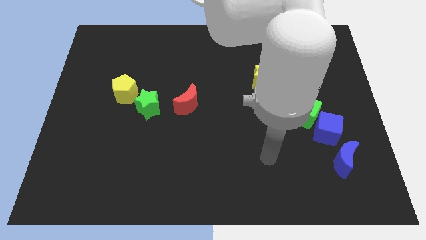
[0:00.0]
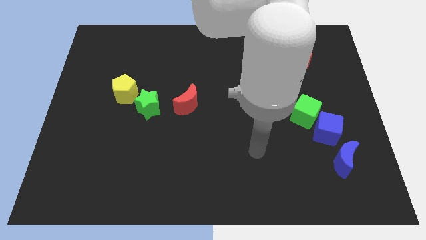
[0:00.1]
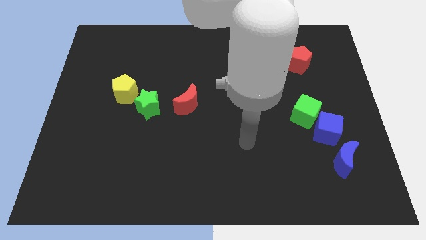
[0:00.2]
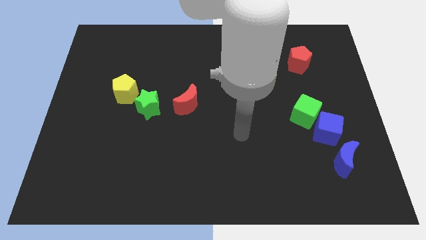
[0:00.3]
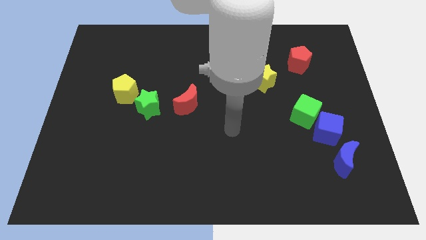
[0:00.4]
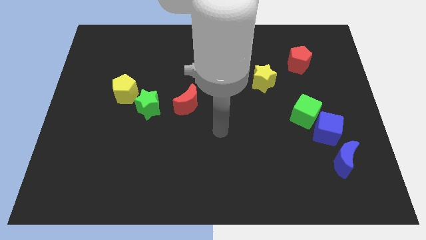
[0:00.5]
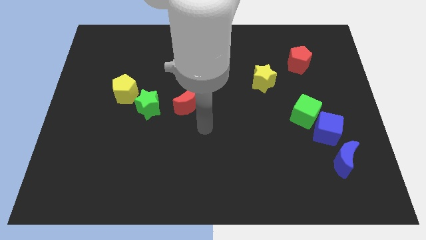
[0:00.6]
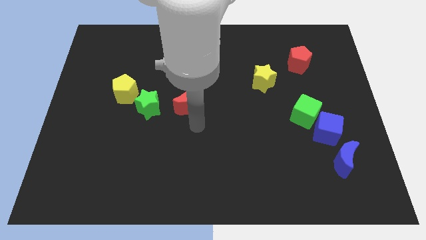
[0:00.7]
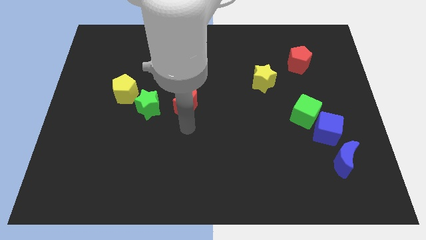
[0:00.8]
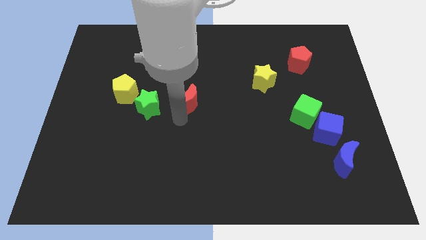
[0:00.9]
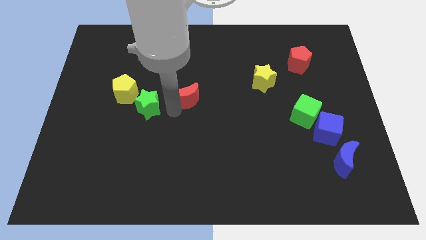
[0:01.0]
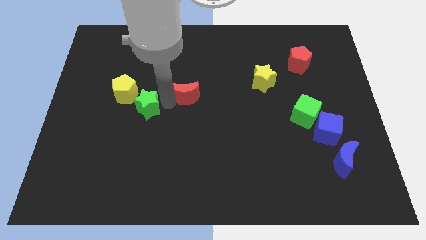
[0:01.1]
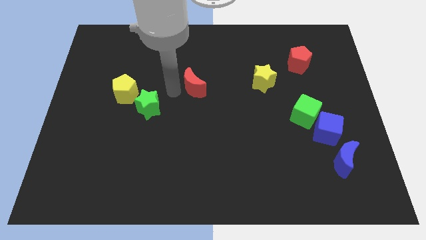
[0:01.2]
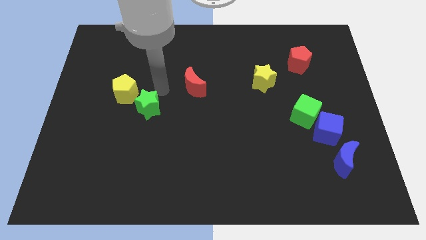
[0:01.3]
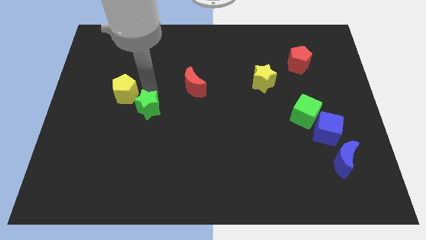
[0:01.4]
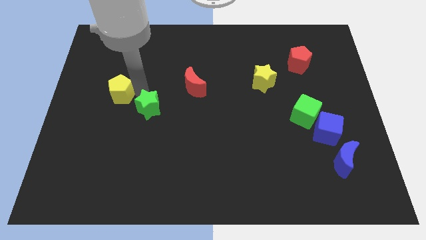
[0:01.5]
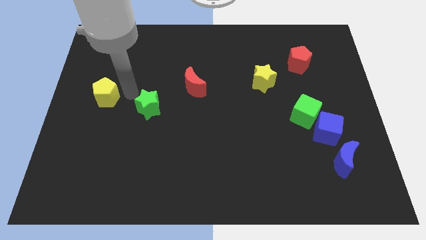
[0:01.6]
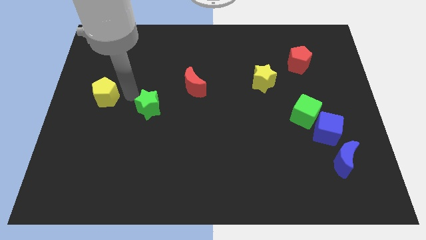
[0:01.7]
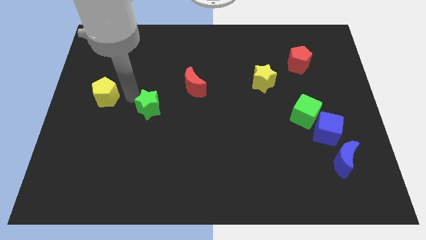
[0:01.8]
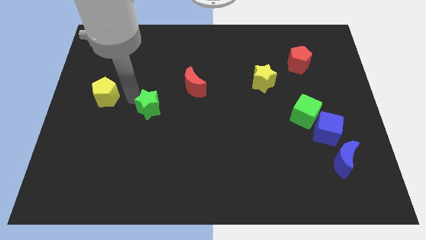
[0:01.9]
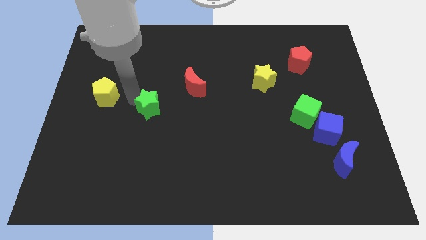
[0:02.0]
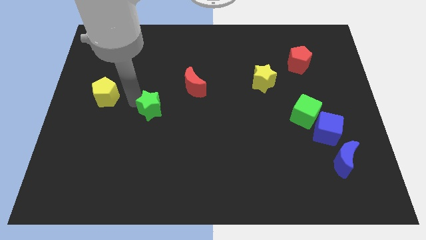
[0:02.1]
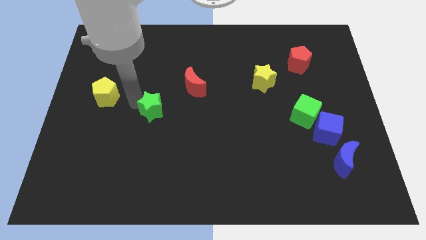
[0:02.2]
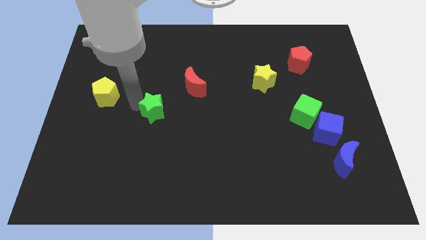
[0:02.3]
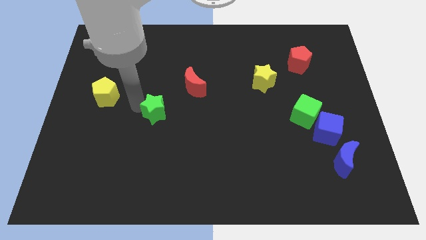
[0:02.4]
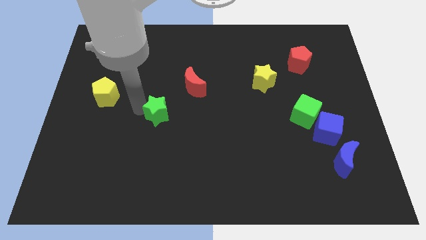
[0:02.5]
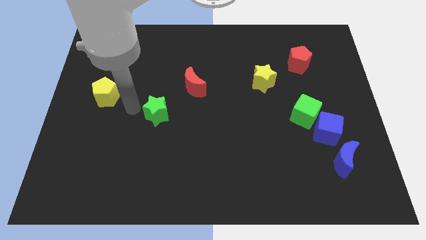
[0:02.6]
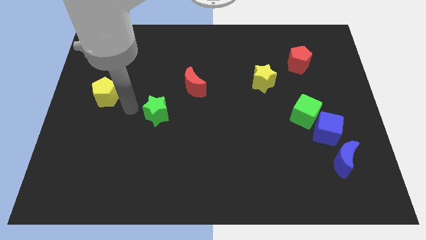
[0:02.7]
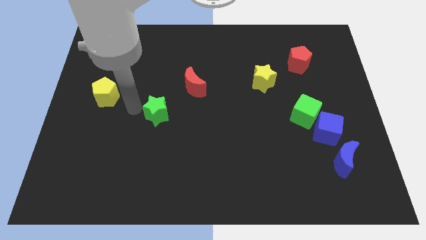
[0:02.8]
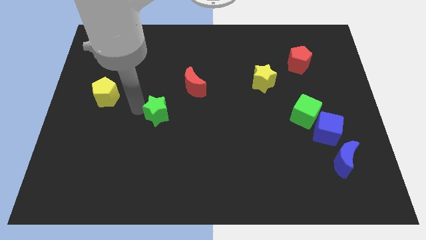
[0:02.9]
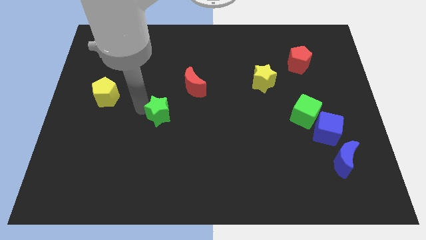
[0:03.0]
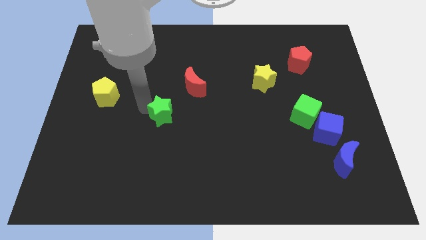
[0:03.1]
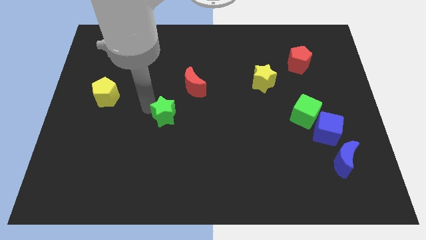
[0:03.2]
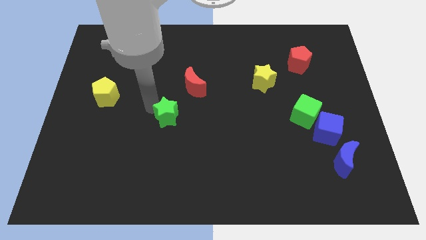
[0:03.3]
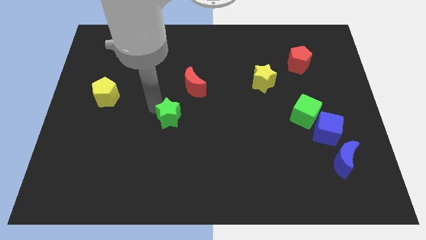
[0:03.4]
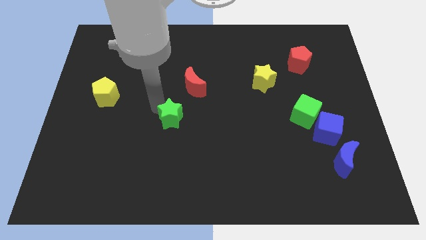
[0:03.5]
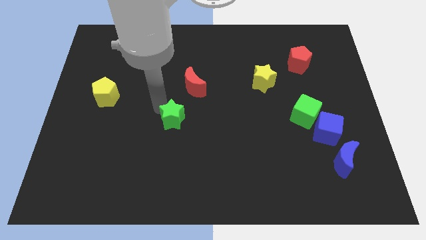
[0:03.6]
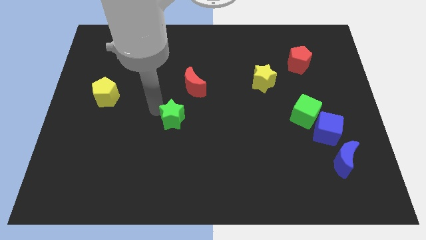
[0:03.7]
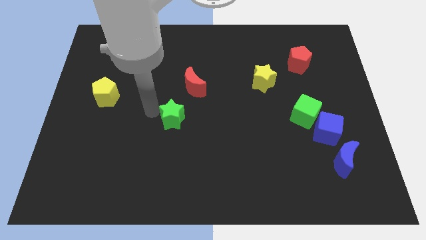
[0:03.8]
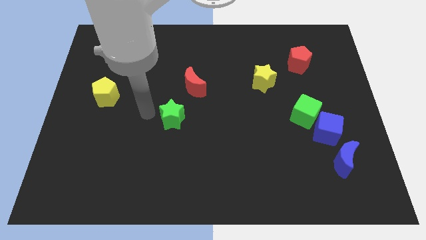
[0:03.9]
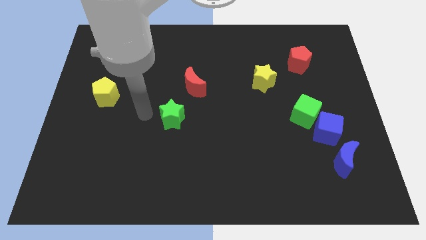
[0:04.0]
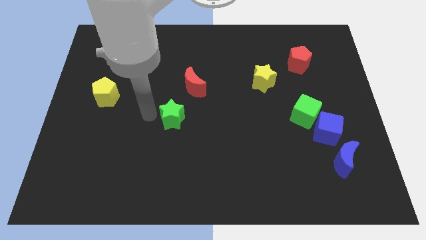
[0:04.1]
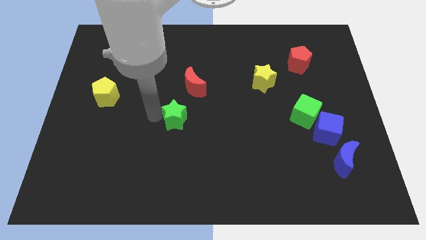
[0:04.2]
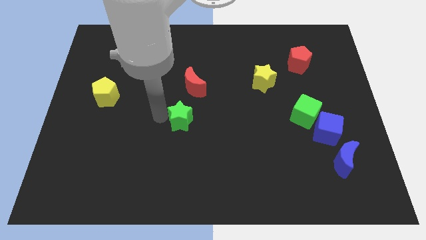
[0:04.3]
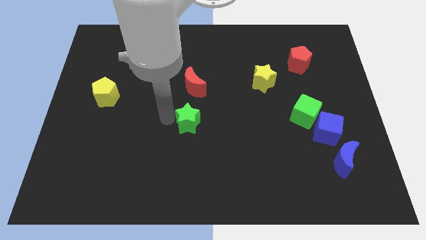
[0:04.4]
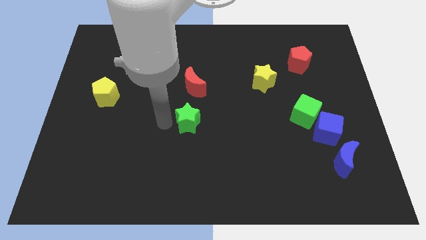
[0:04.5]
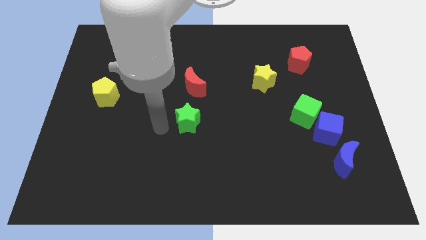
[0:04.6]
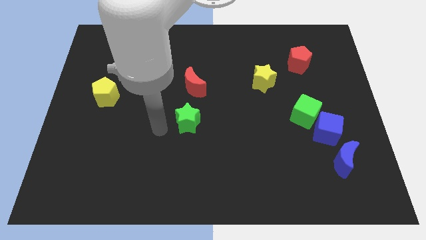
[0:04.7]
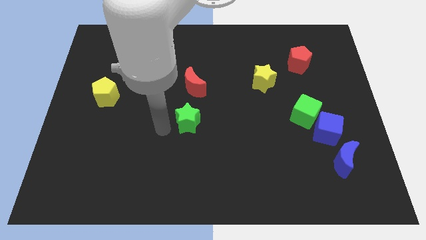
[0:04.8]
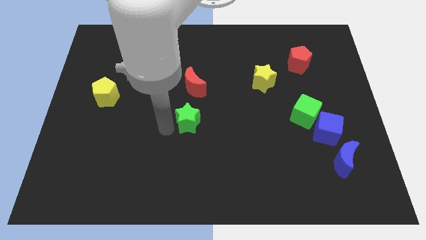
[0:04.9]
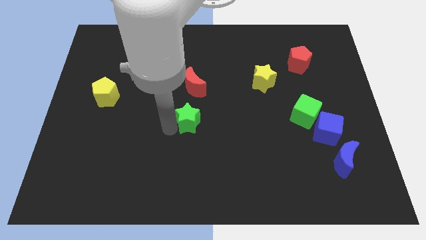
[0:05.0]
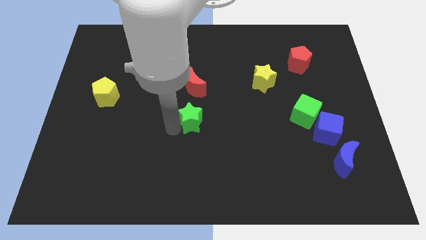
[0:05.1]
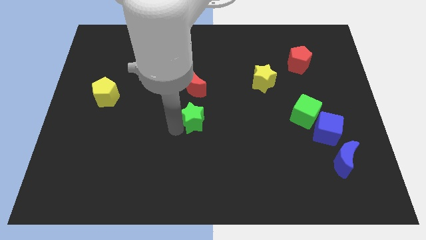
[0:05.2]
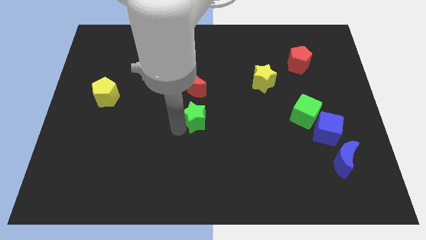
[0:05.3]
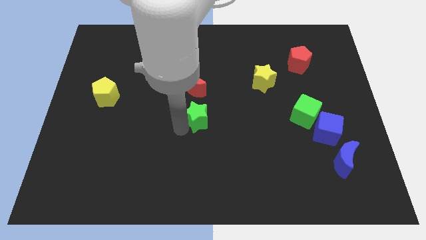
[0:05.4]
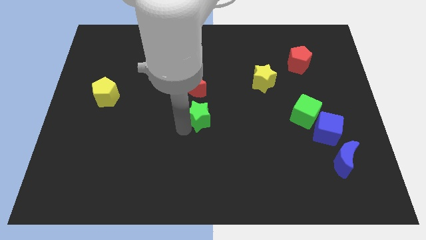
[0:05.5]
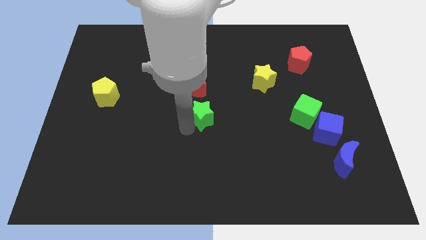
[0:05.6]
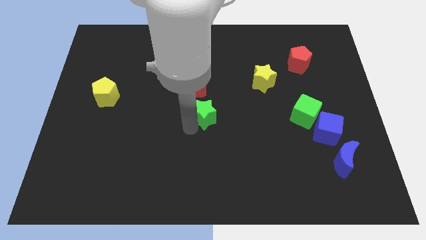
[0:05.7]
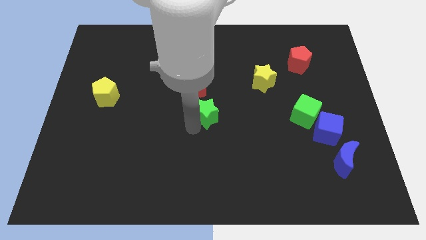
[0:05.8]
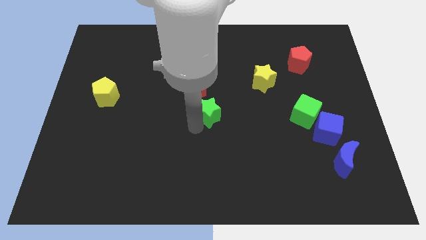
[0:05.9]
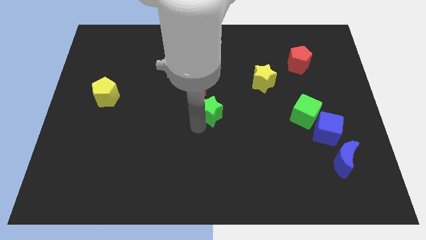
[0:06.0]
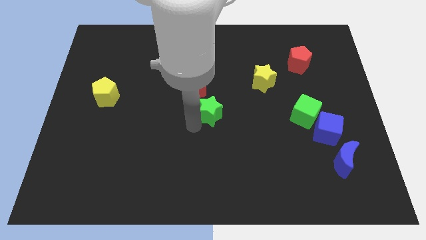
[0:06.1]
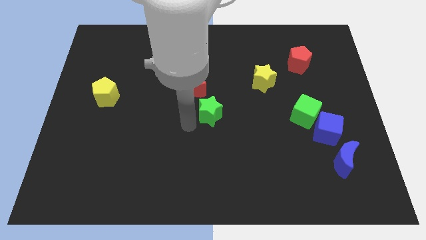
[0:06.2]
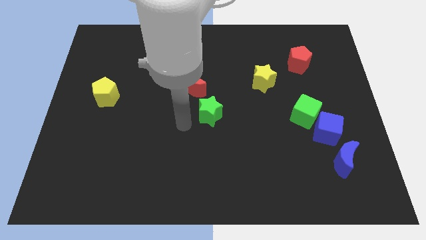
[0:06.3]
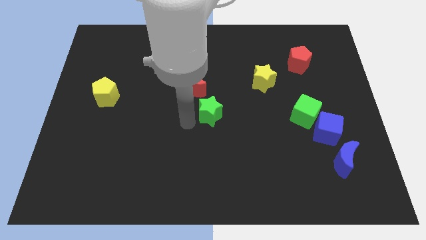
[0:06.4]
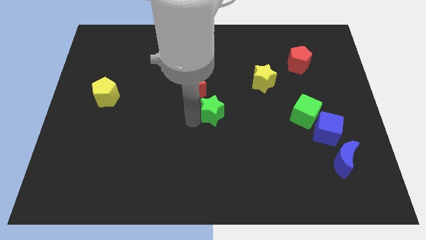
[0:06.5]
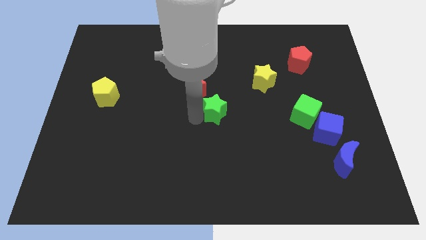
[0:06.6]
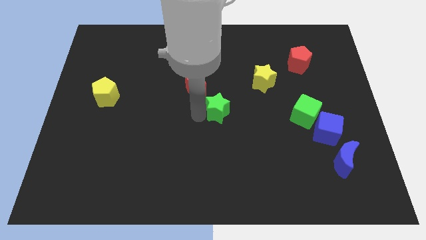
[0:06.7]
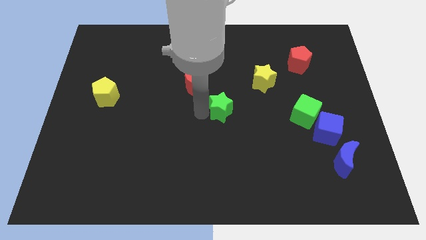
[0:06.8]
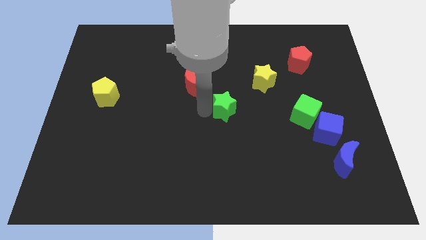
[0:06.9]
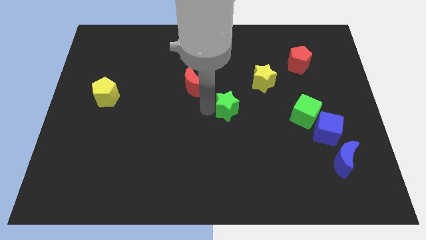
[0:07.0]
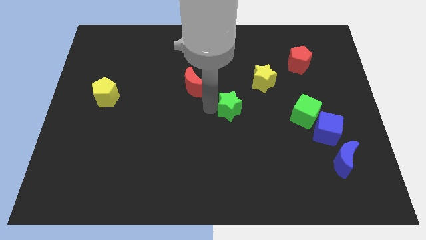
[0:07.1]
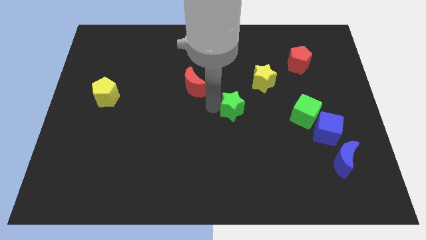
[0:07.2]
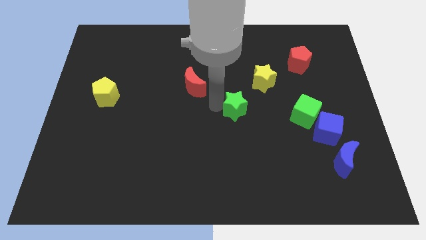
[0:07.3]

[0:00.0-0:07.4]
slide the green star right

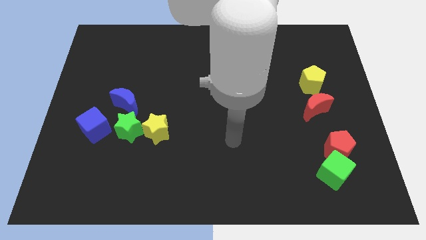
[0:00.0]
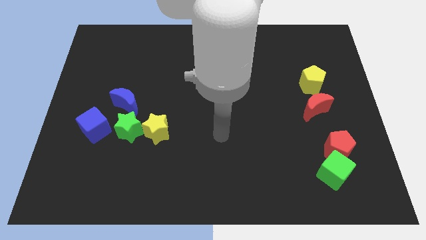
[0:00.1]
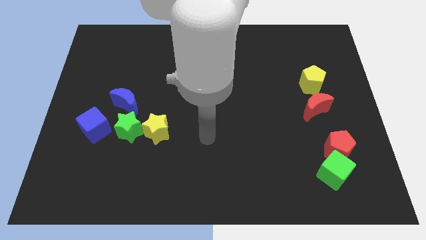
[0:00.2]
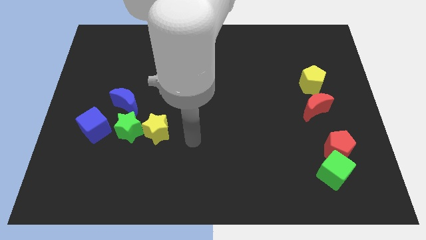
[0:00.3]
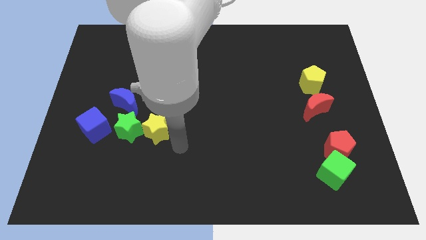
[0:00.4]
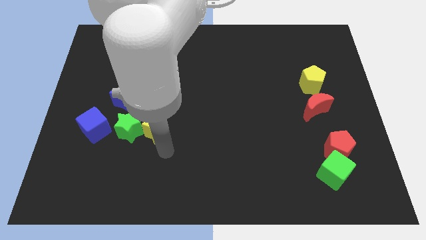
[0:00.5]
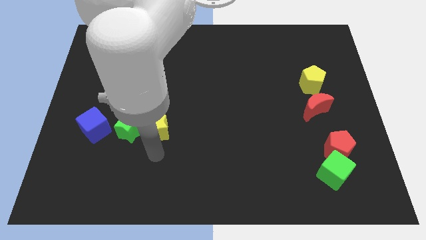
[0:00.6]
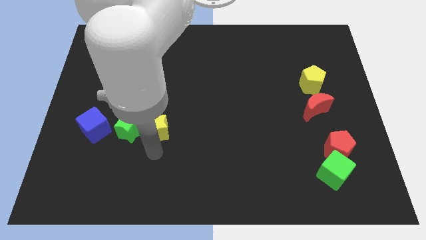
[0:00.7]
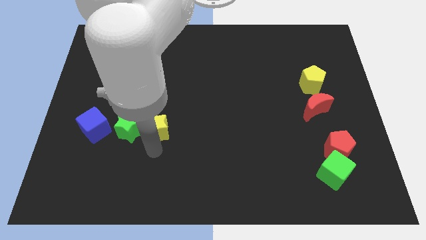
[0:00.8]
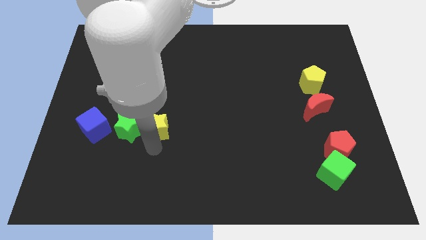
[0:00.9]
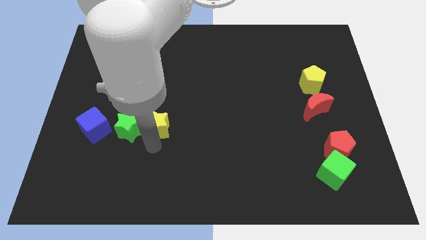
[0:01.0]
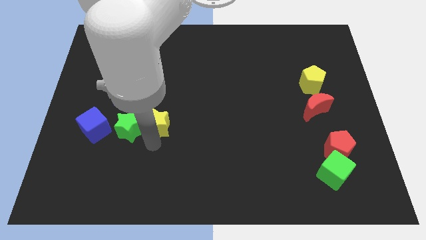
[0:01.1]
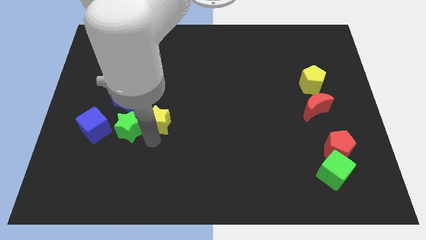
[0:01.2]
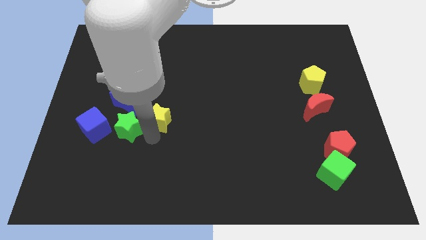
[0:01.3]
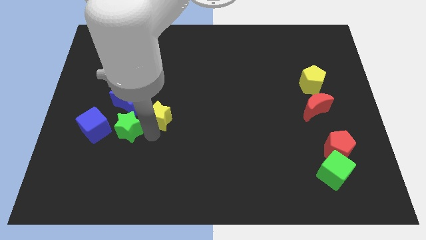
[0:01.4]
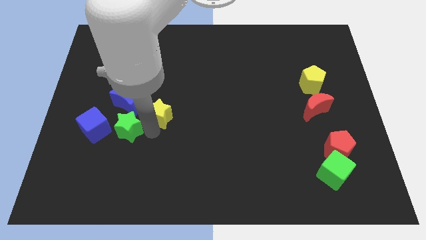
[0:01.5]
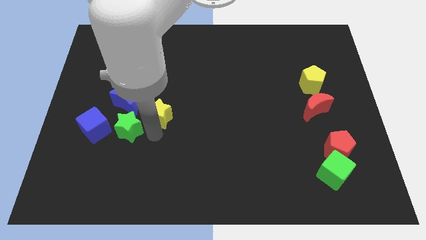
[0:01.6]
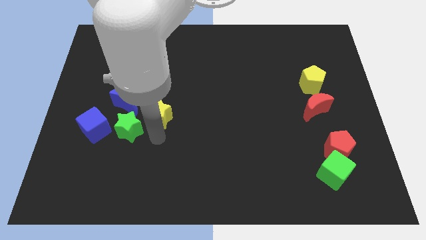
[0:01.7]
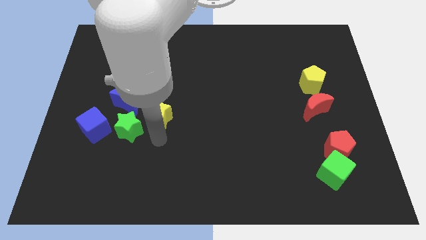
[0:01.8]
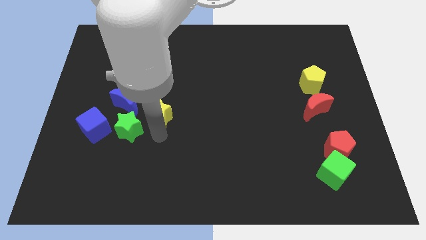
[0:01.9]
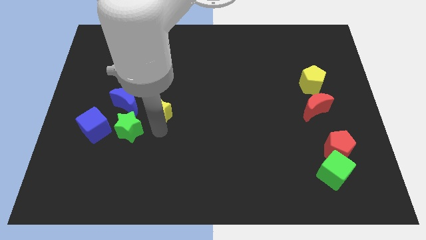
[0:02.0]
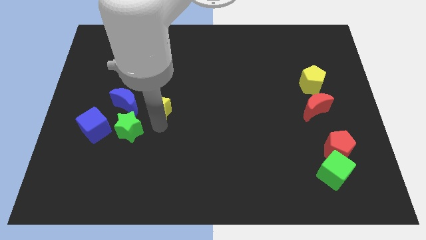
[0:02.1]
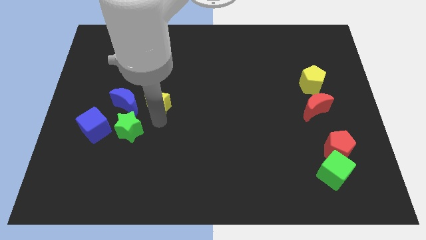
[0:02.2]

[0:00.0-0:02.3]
slide the yellow star up a little
